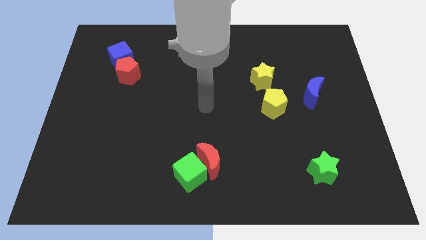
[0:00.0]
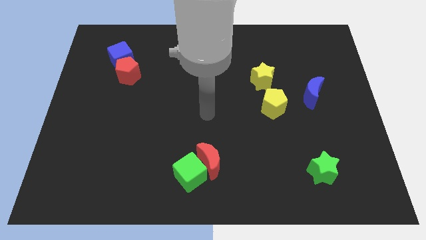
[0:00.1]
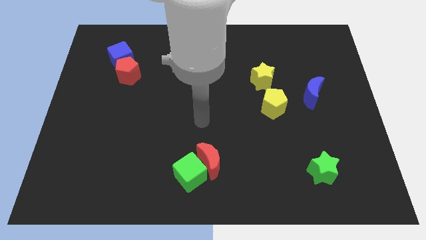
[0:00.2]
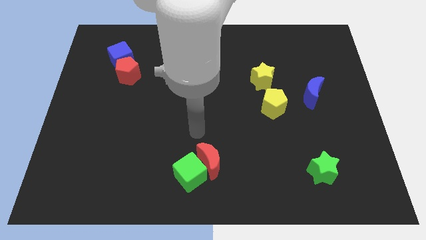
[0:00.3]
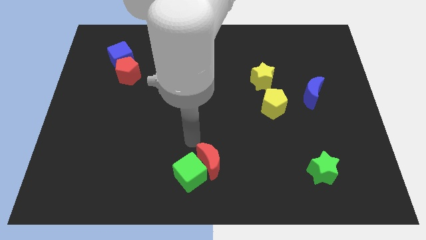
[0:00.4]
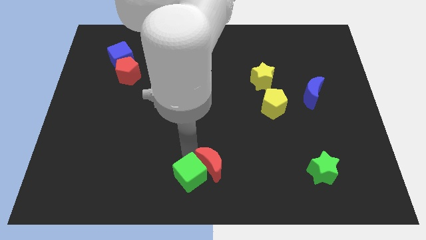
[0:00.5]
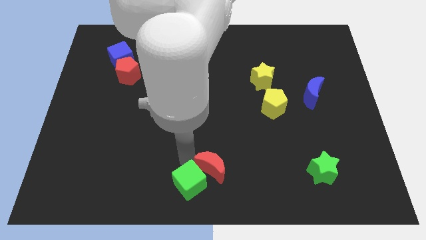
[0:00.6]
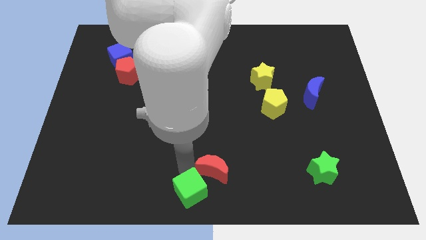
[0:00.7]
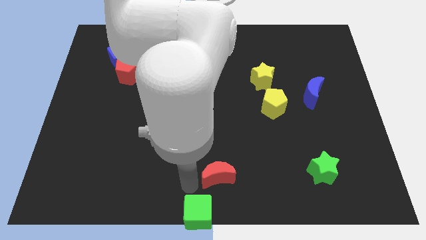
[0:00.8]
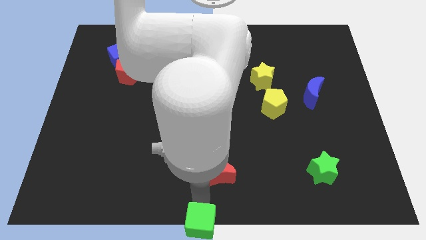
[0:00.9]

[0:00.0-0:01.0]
move the red moon away from the green cube

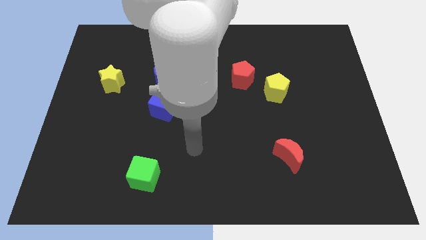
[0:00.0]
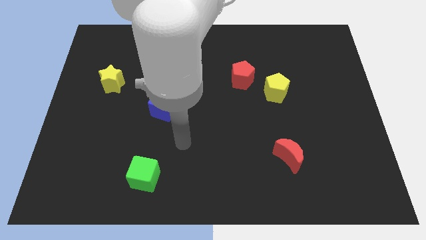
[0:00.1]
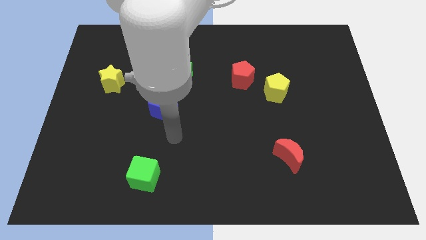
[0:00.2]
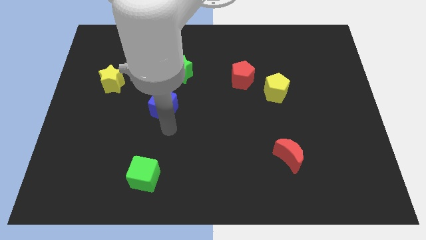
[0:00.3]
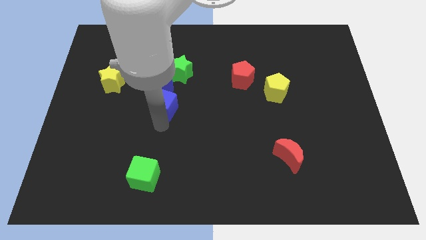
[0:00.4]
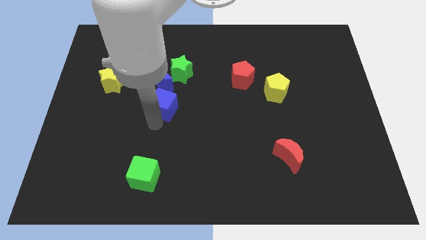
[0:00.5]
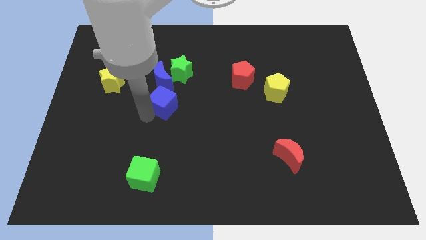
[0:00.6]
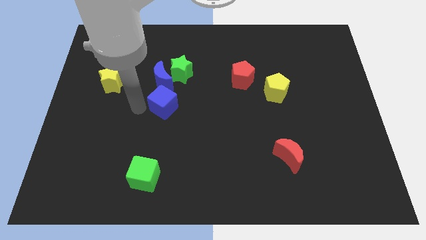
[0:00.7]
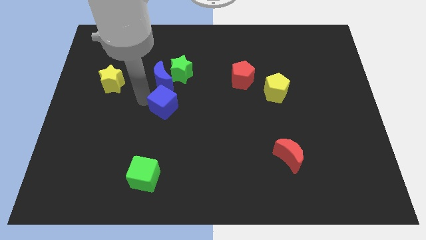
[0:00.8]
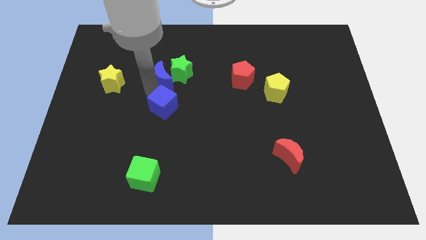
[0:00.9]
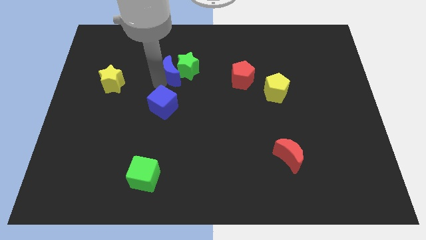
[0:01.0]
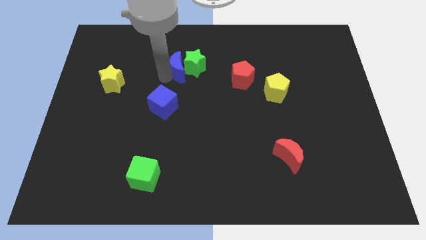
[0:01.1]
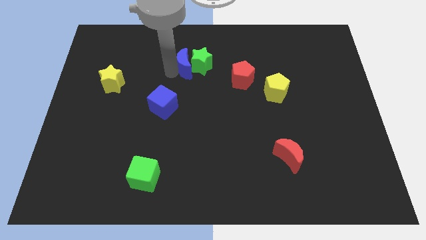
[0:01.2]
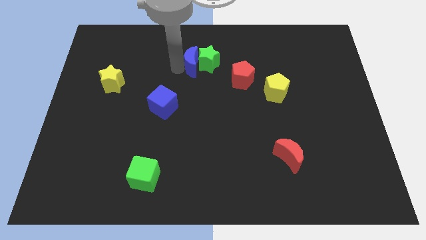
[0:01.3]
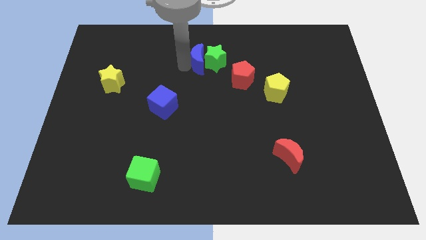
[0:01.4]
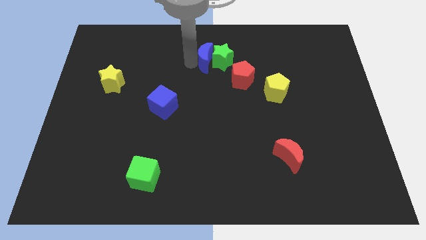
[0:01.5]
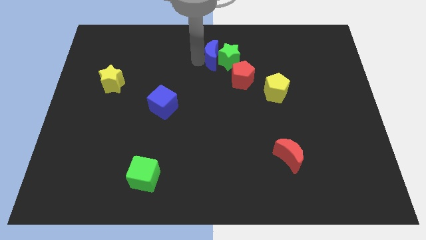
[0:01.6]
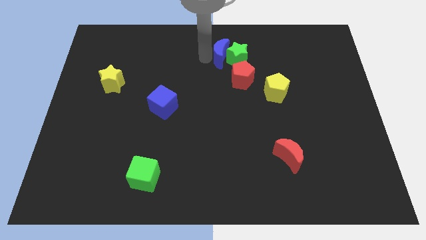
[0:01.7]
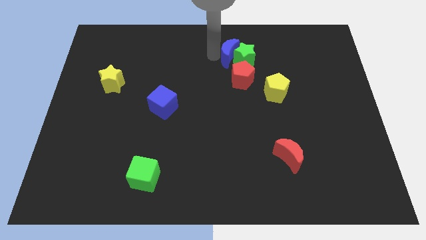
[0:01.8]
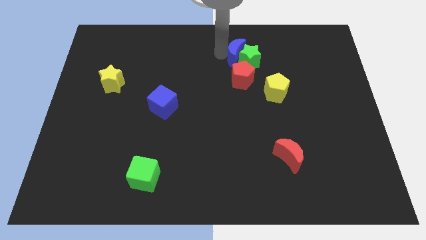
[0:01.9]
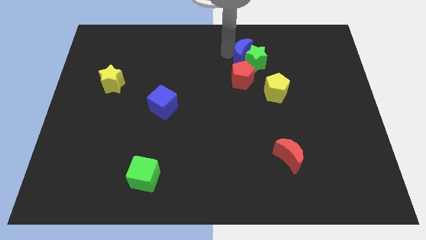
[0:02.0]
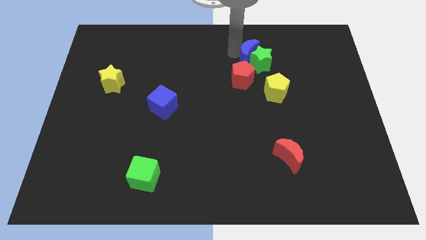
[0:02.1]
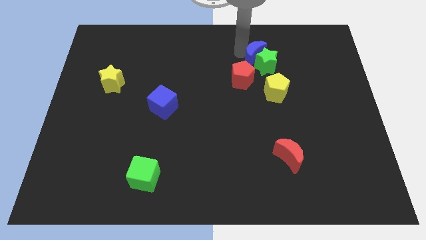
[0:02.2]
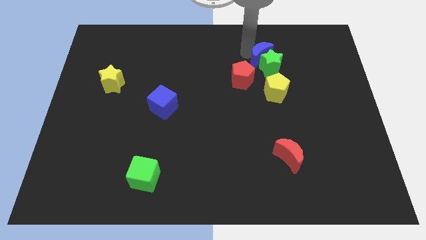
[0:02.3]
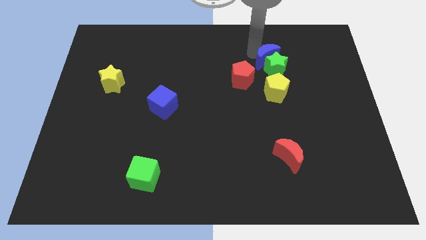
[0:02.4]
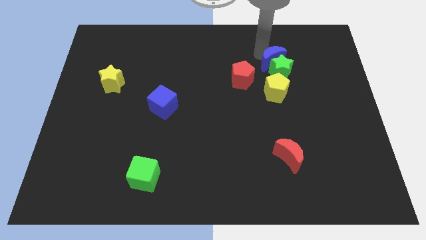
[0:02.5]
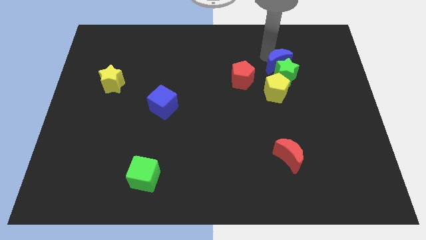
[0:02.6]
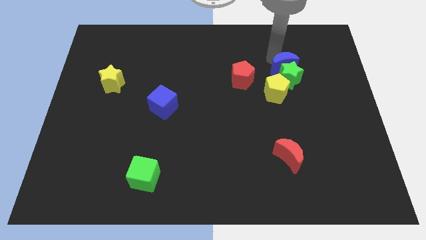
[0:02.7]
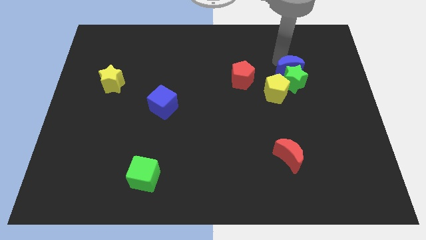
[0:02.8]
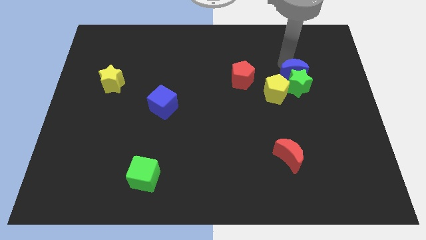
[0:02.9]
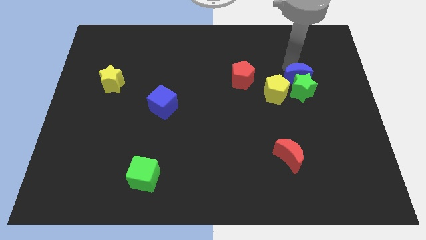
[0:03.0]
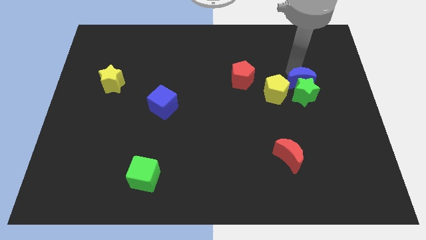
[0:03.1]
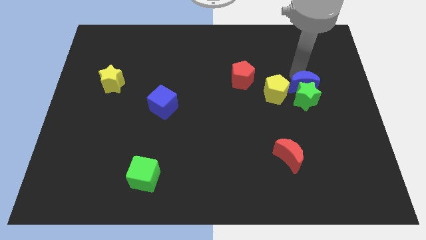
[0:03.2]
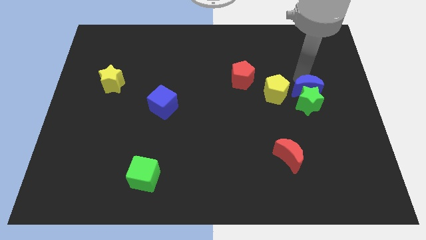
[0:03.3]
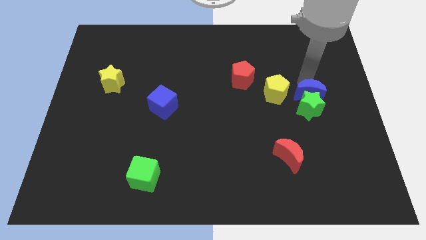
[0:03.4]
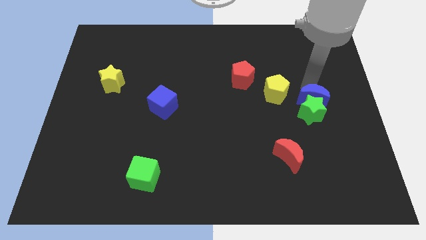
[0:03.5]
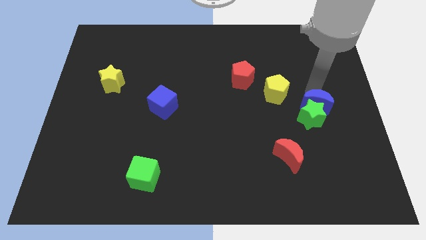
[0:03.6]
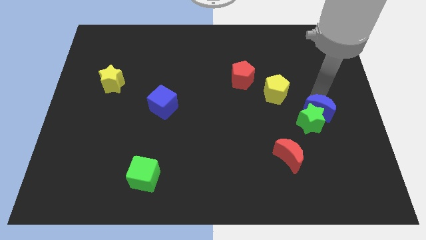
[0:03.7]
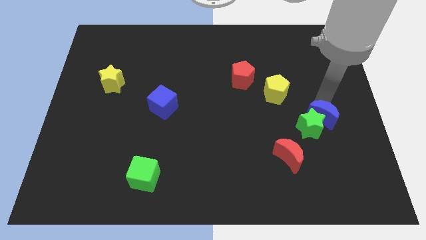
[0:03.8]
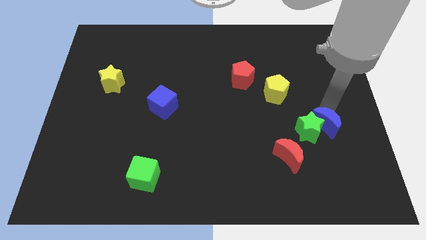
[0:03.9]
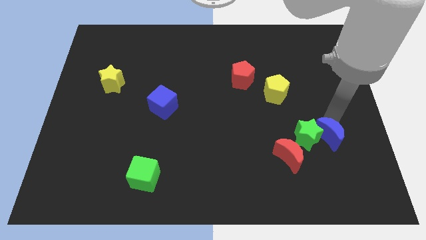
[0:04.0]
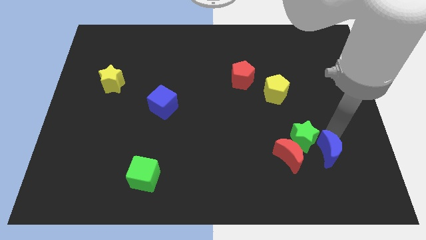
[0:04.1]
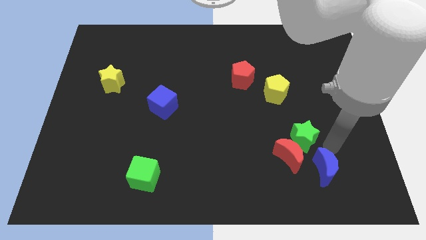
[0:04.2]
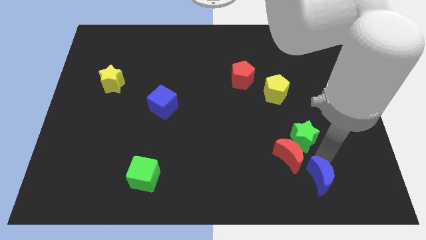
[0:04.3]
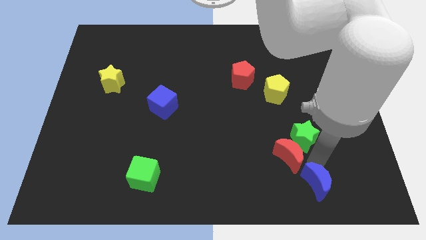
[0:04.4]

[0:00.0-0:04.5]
separate the green star from the blue moon

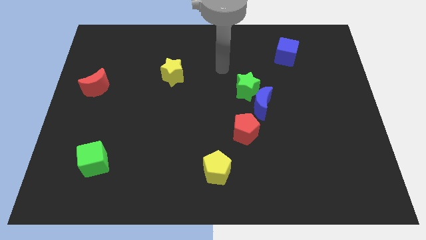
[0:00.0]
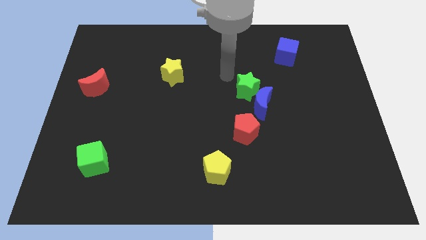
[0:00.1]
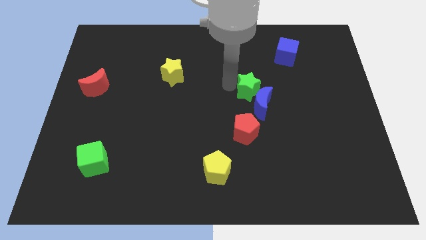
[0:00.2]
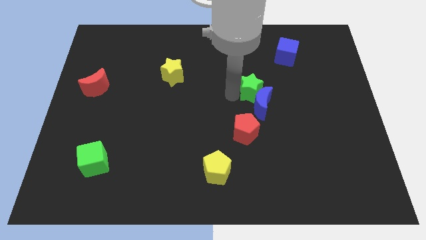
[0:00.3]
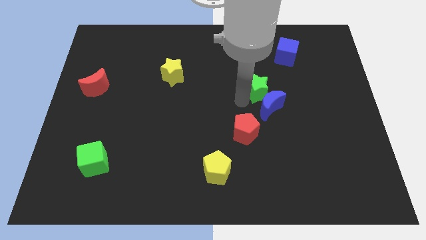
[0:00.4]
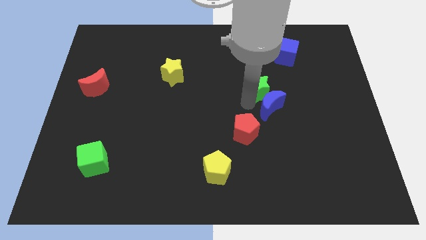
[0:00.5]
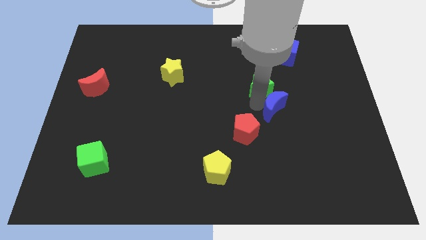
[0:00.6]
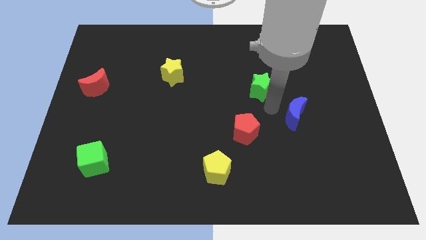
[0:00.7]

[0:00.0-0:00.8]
pull the green star apart from the blue moon

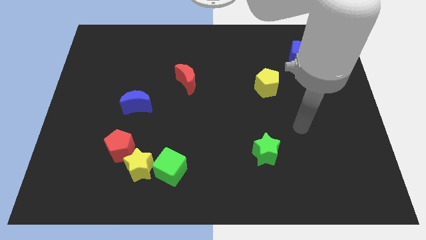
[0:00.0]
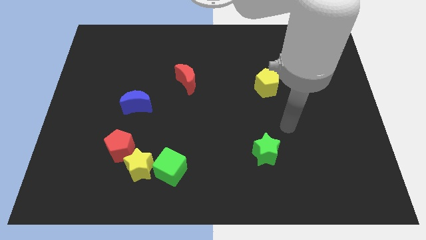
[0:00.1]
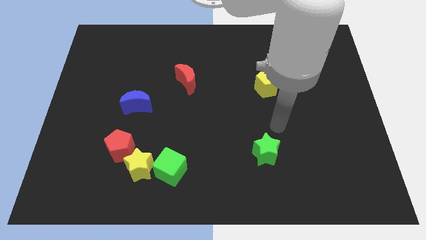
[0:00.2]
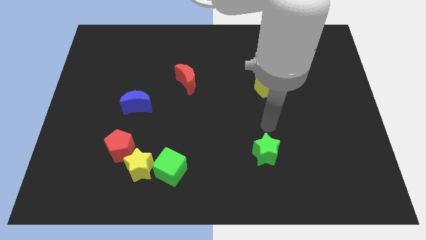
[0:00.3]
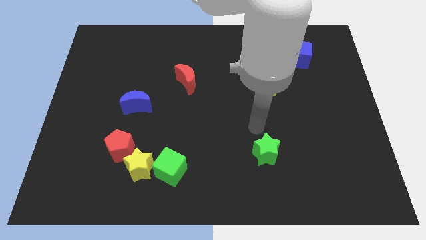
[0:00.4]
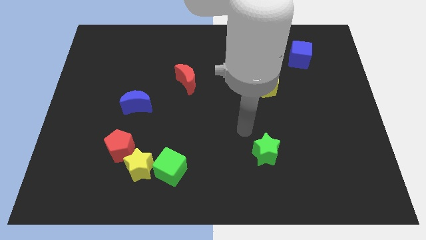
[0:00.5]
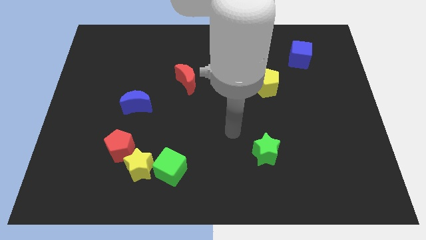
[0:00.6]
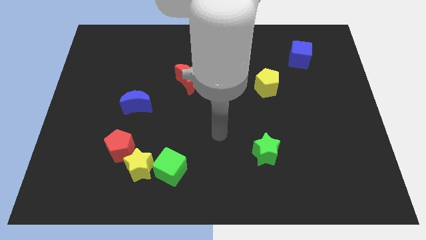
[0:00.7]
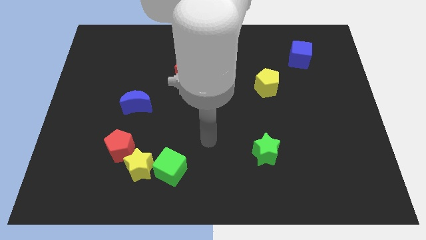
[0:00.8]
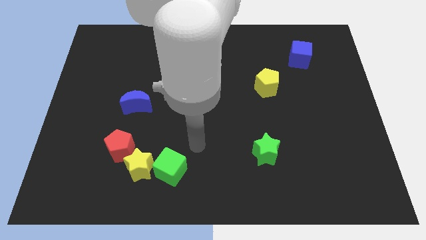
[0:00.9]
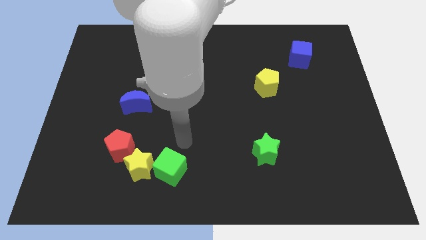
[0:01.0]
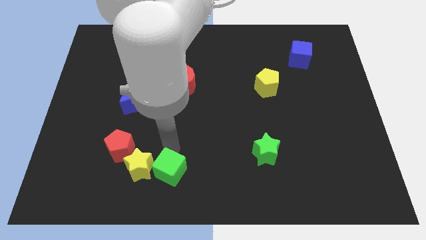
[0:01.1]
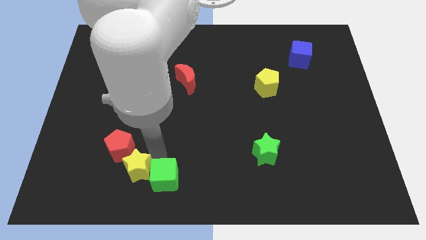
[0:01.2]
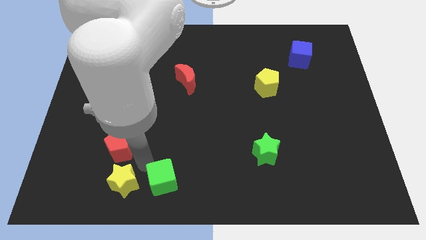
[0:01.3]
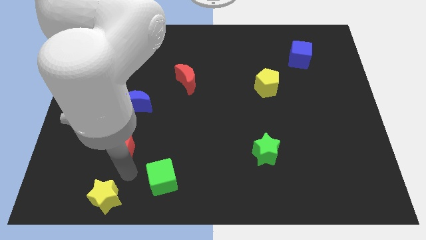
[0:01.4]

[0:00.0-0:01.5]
move the red pentagon away from the yellow star

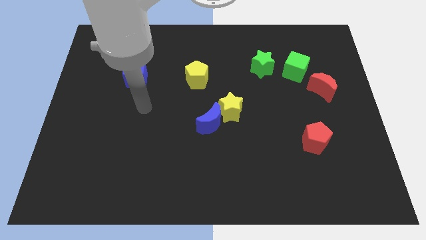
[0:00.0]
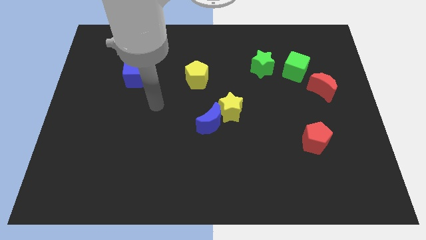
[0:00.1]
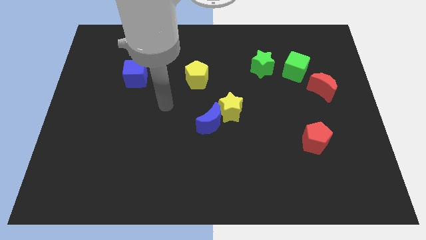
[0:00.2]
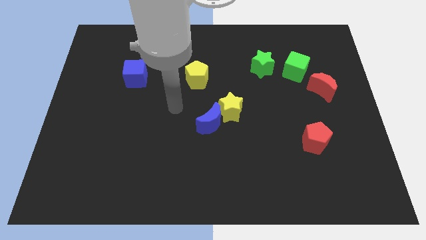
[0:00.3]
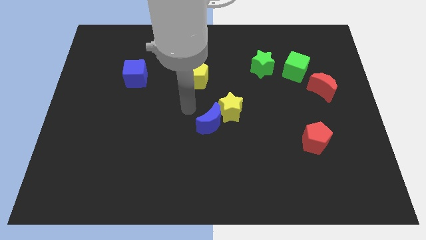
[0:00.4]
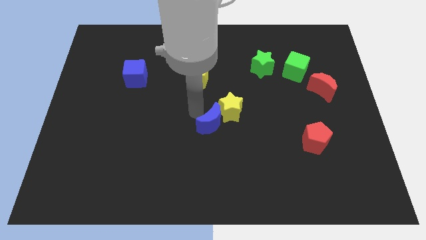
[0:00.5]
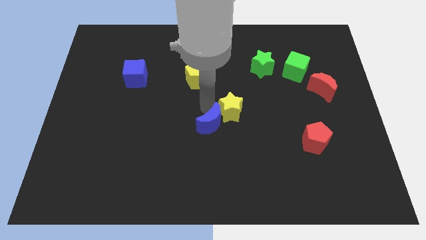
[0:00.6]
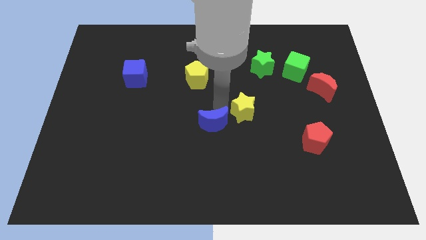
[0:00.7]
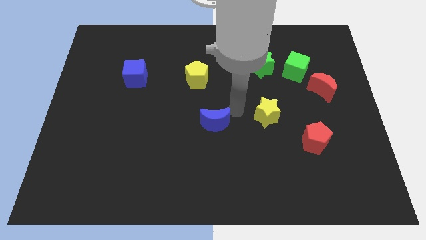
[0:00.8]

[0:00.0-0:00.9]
separate the blue moon from the yellow star

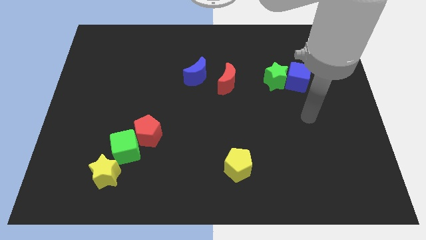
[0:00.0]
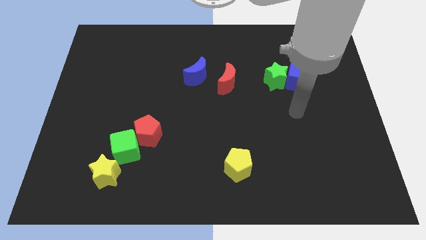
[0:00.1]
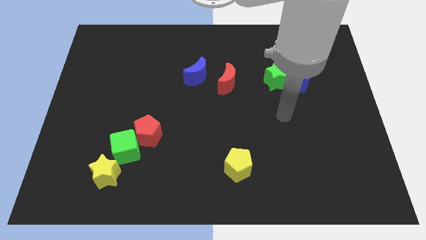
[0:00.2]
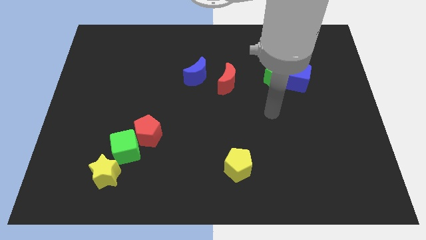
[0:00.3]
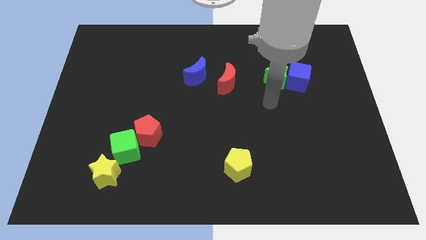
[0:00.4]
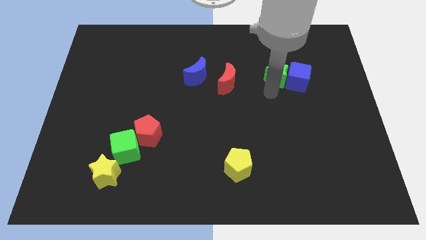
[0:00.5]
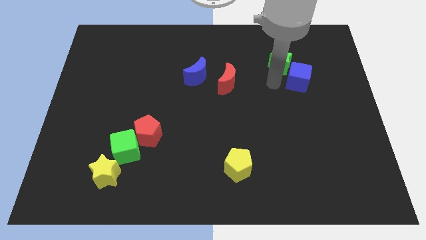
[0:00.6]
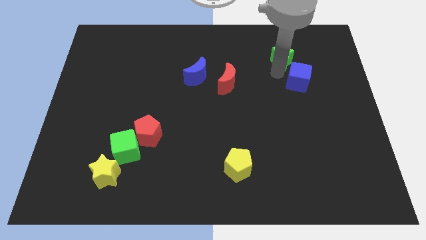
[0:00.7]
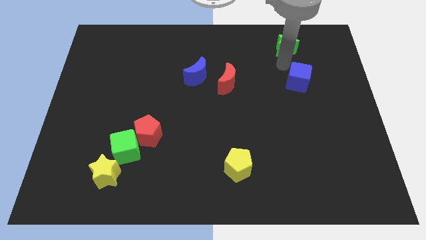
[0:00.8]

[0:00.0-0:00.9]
move the blue cube away from the green star
